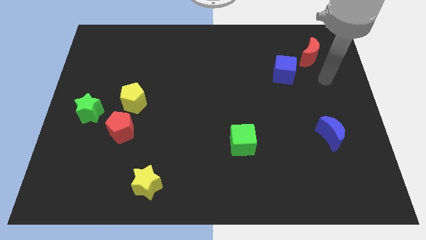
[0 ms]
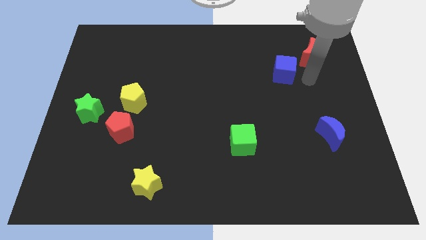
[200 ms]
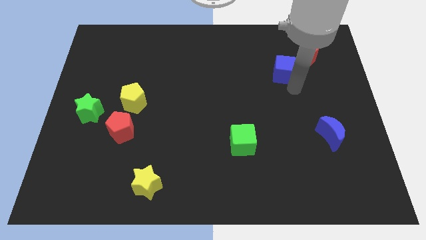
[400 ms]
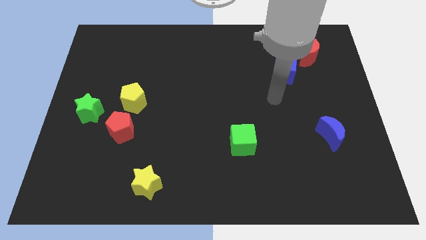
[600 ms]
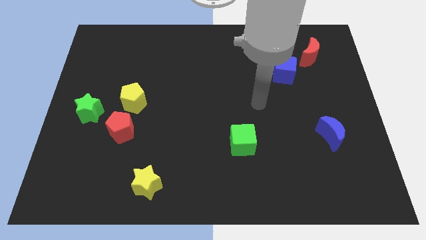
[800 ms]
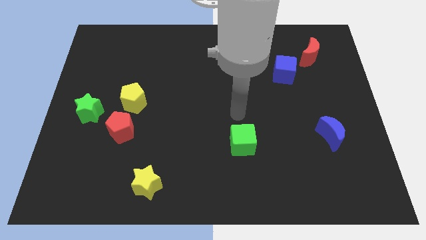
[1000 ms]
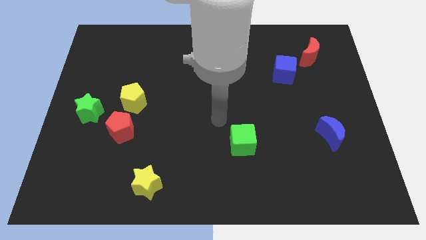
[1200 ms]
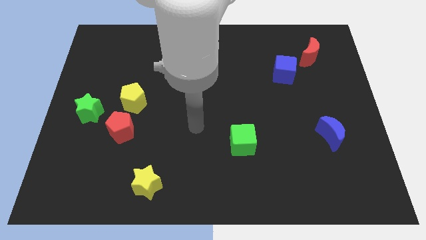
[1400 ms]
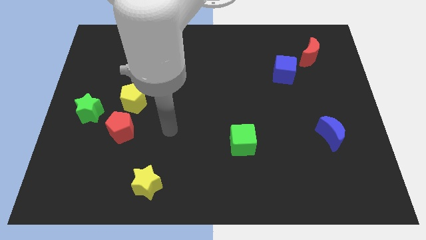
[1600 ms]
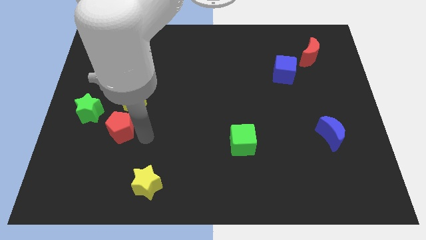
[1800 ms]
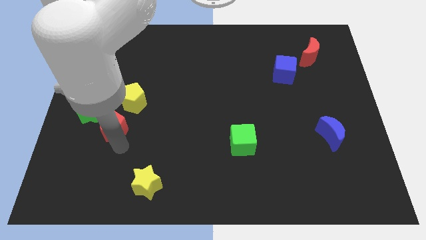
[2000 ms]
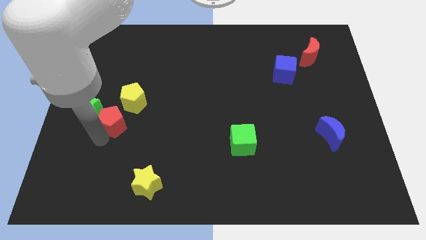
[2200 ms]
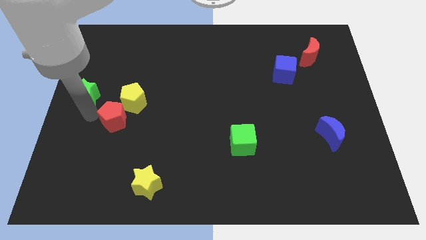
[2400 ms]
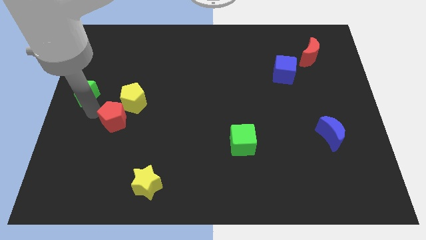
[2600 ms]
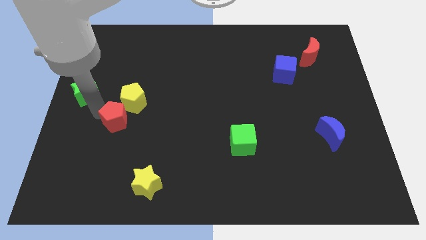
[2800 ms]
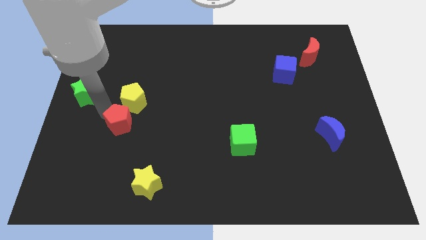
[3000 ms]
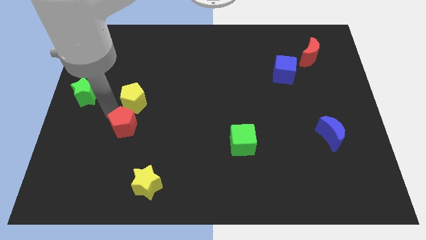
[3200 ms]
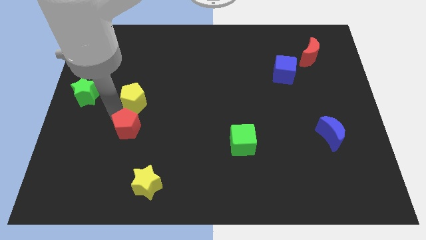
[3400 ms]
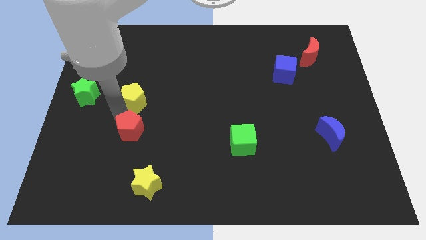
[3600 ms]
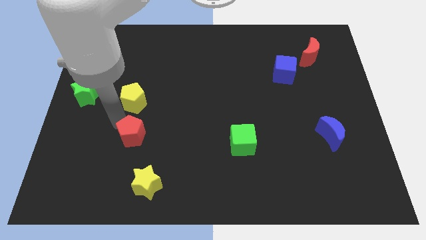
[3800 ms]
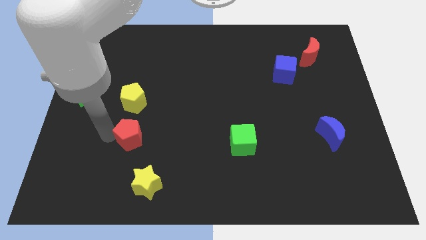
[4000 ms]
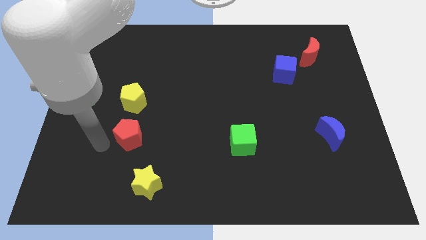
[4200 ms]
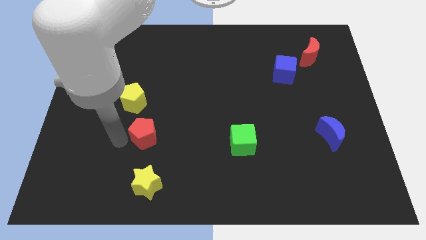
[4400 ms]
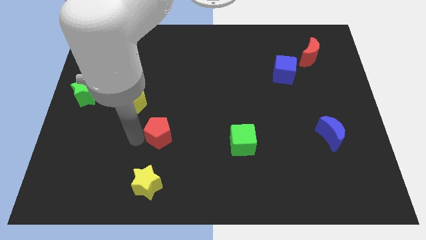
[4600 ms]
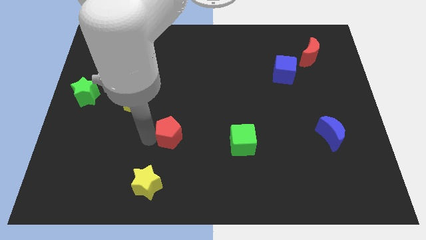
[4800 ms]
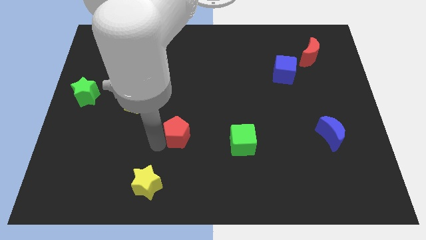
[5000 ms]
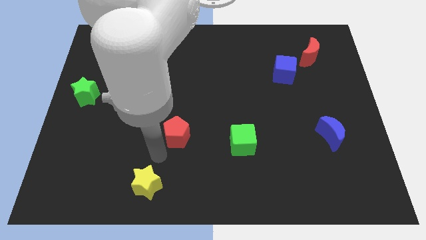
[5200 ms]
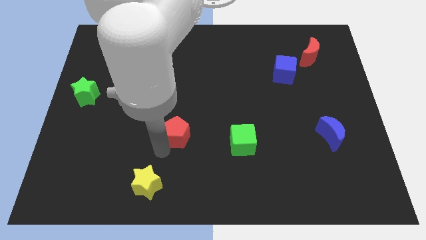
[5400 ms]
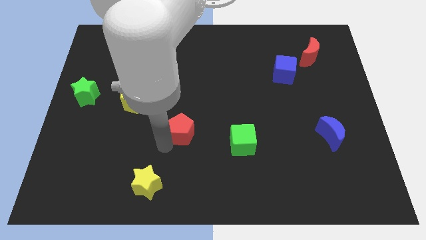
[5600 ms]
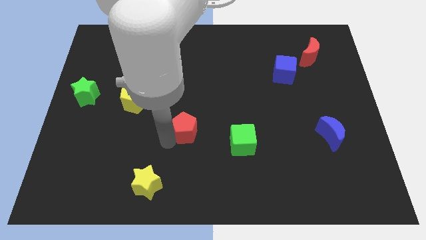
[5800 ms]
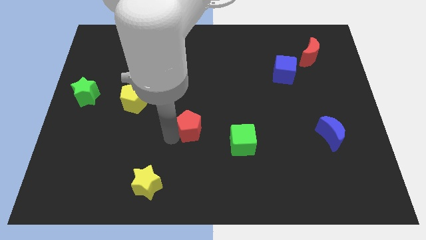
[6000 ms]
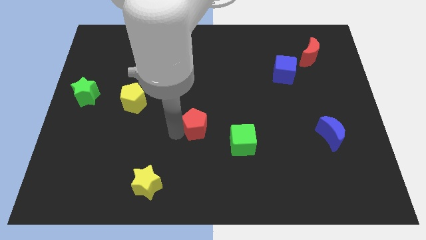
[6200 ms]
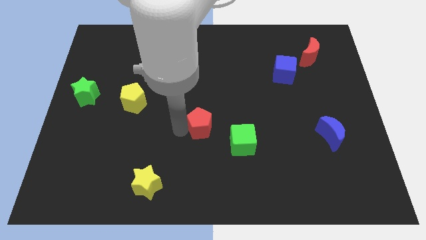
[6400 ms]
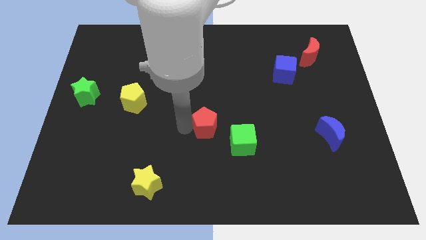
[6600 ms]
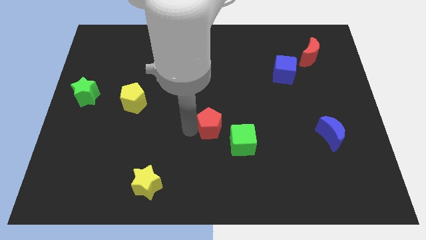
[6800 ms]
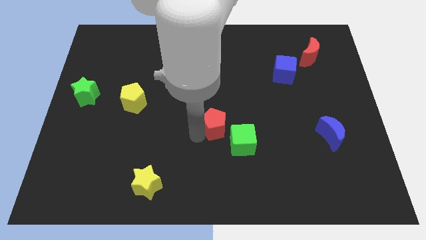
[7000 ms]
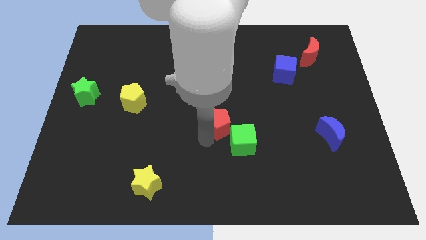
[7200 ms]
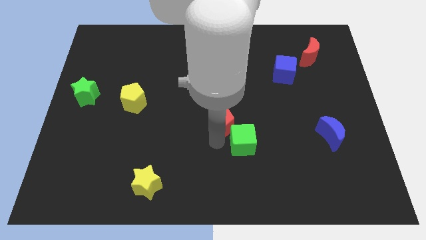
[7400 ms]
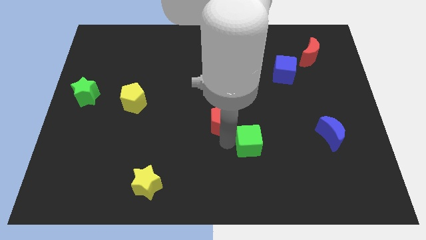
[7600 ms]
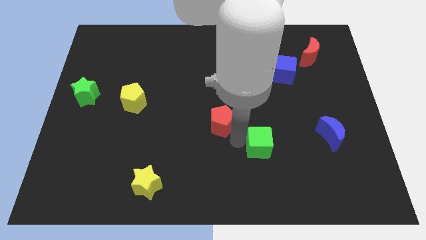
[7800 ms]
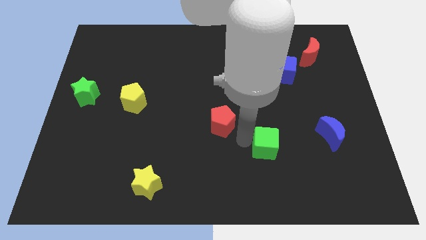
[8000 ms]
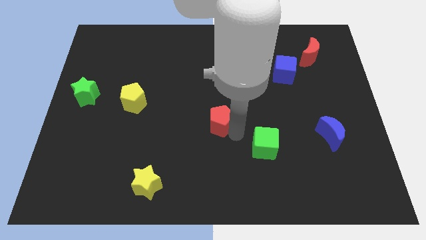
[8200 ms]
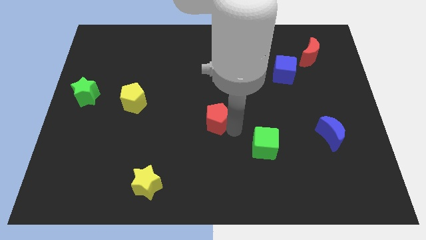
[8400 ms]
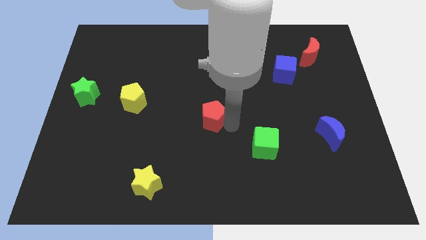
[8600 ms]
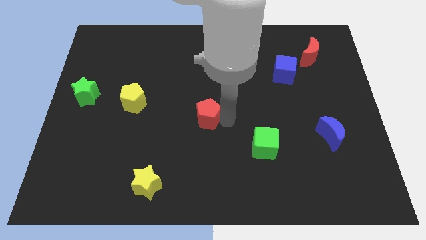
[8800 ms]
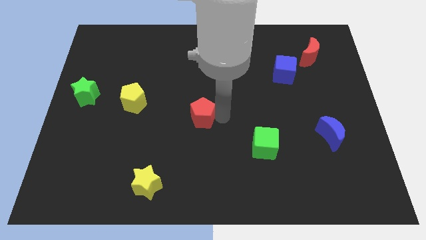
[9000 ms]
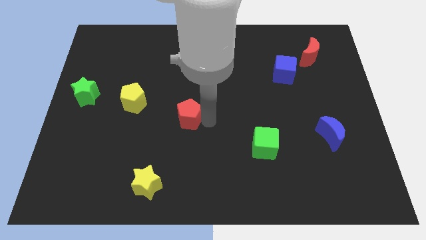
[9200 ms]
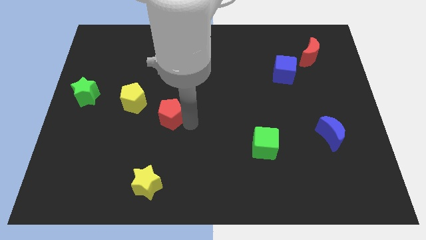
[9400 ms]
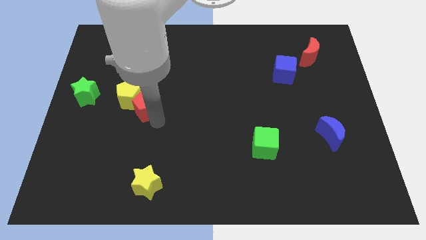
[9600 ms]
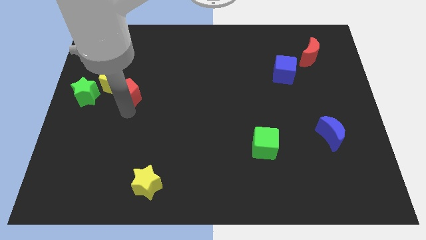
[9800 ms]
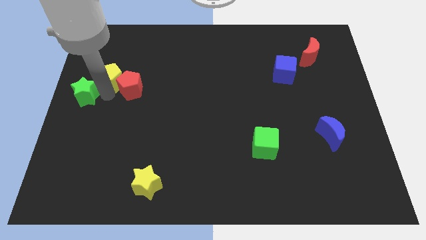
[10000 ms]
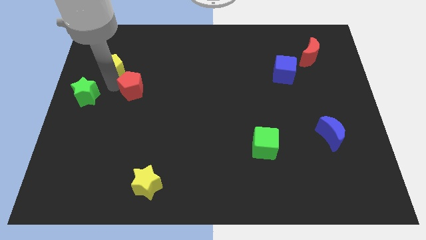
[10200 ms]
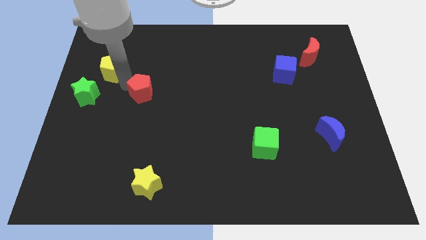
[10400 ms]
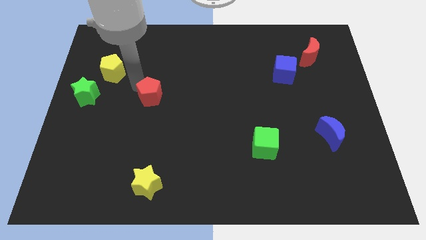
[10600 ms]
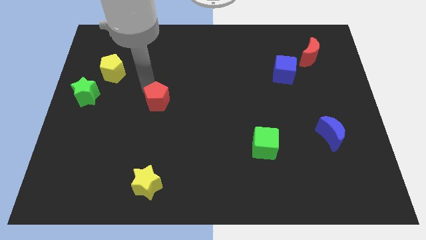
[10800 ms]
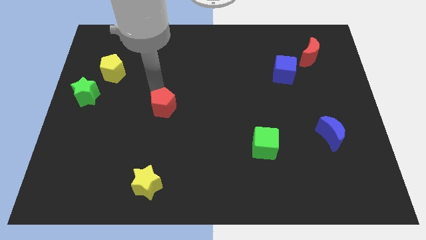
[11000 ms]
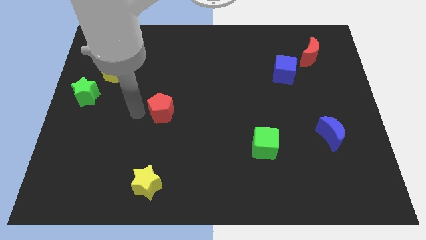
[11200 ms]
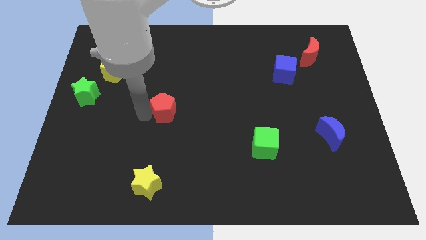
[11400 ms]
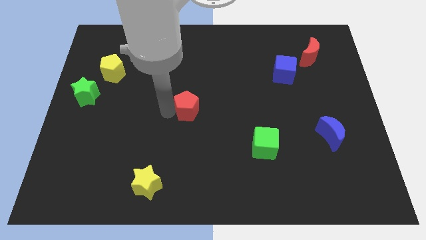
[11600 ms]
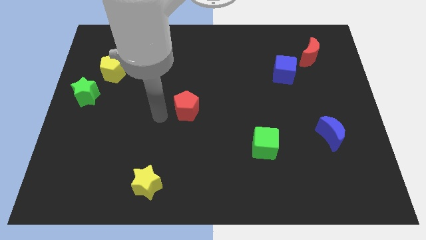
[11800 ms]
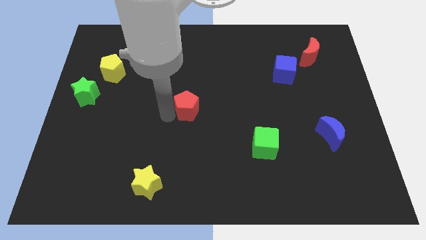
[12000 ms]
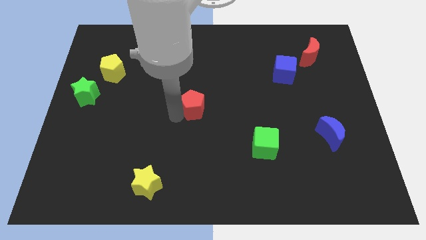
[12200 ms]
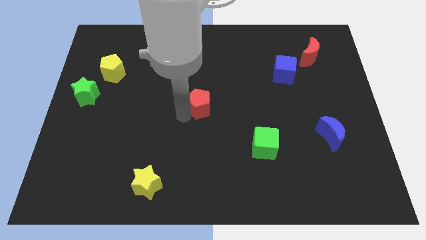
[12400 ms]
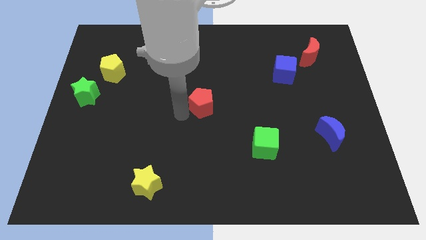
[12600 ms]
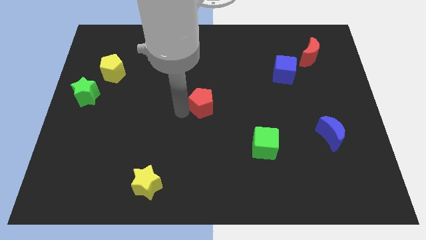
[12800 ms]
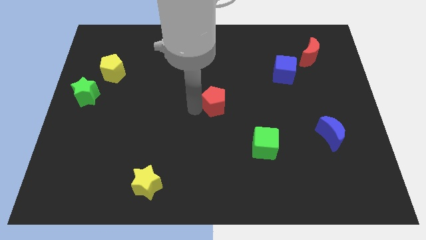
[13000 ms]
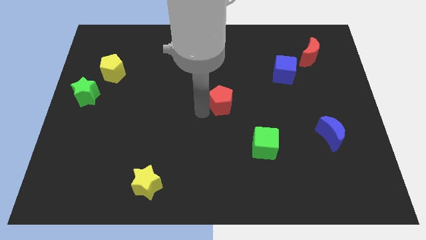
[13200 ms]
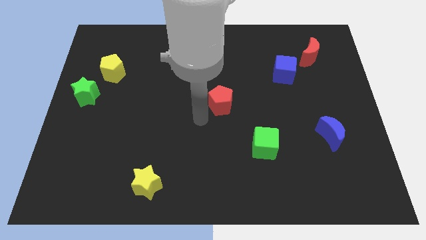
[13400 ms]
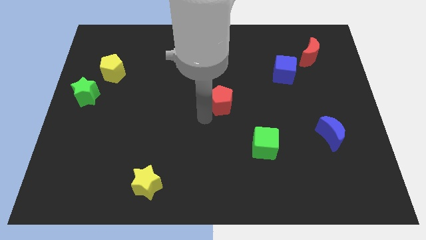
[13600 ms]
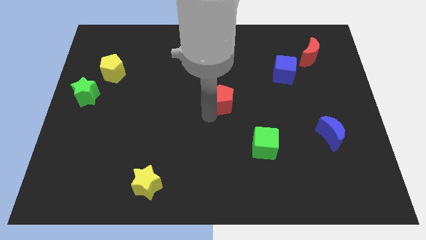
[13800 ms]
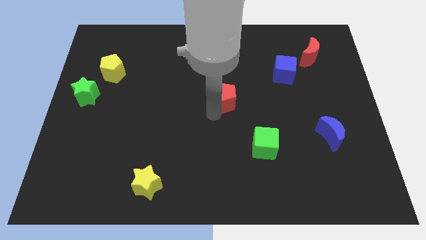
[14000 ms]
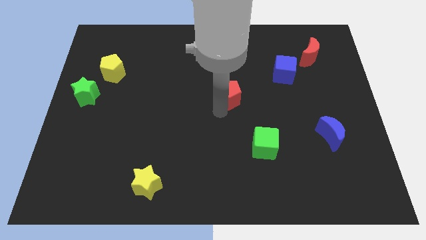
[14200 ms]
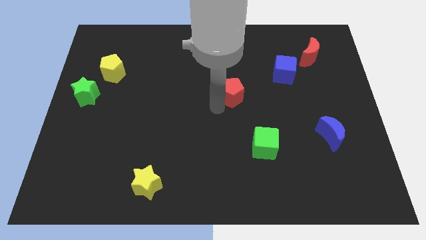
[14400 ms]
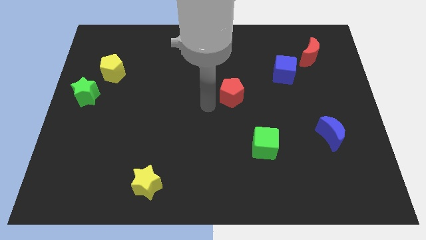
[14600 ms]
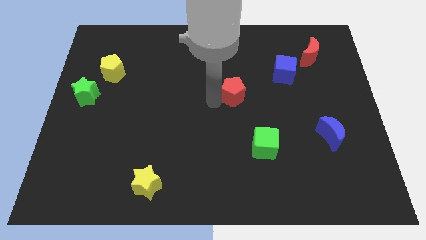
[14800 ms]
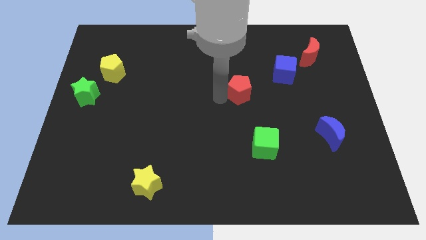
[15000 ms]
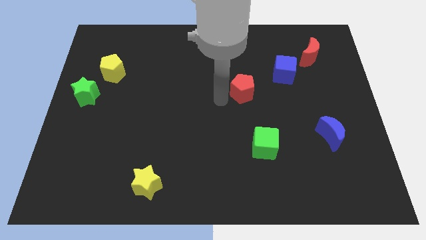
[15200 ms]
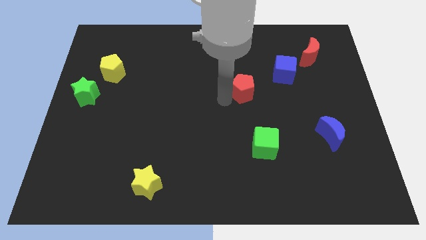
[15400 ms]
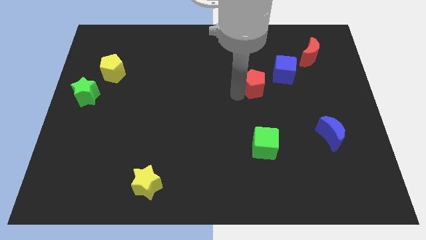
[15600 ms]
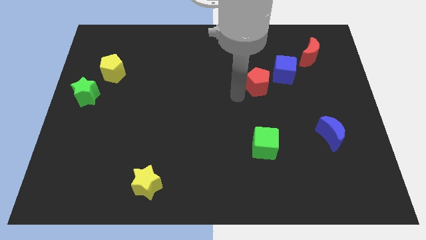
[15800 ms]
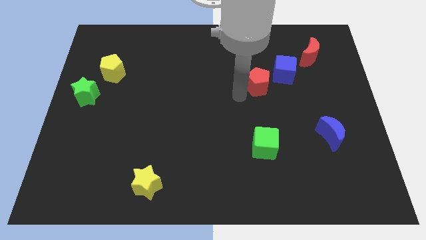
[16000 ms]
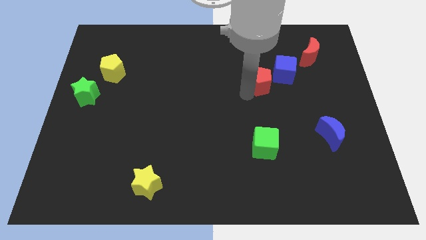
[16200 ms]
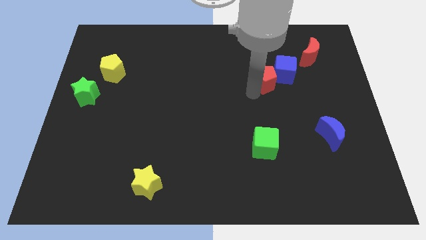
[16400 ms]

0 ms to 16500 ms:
push the red pentagon to the blue cube
